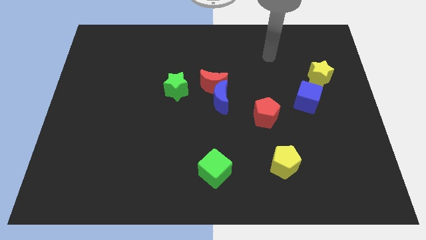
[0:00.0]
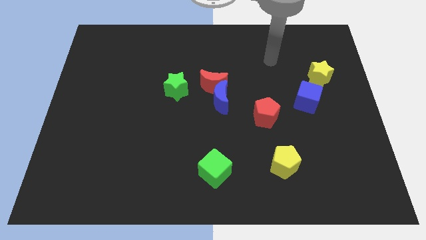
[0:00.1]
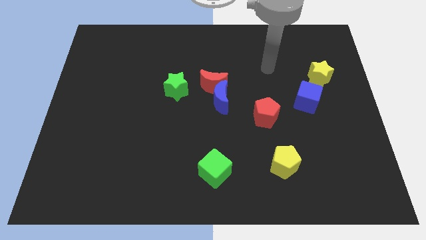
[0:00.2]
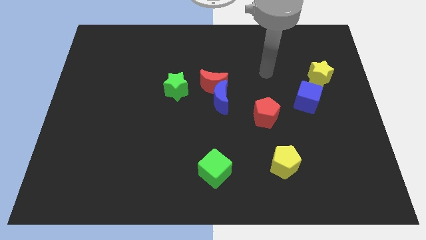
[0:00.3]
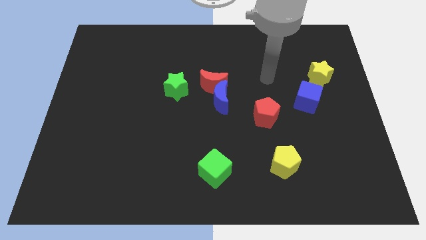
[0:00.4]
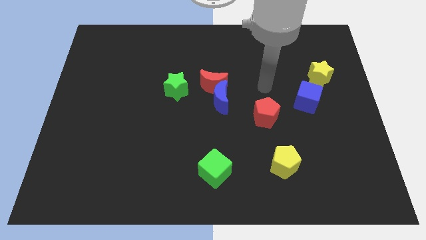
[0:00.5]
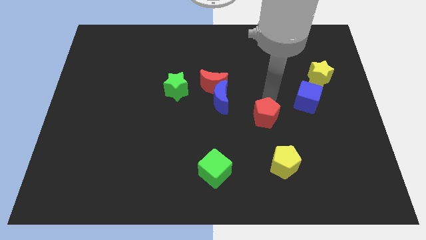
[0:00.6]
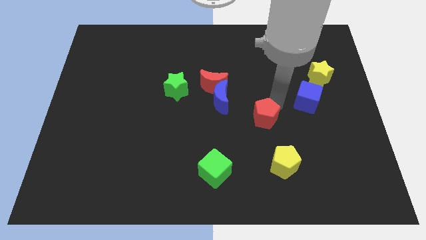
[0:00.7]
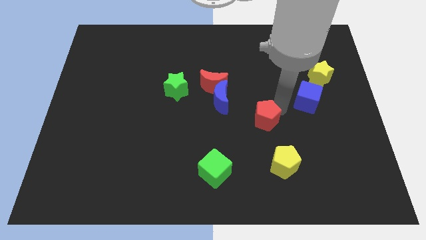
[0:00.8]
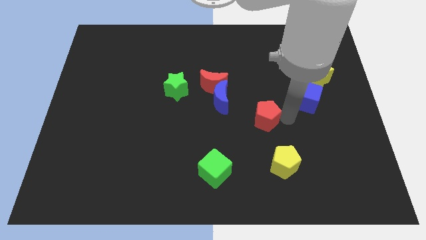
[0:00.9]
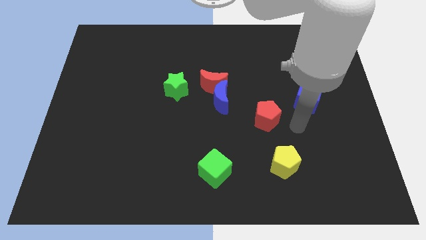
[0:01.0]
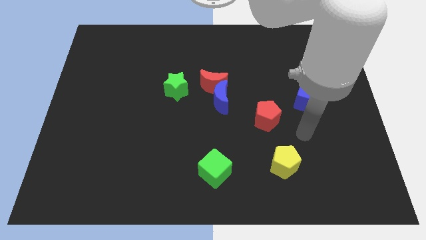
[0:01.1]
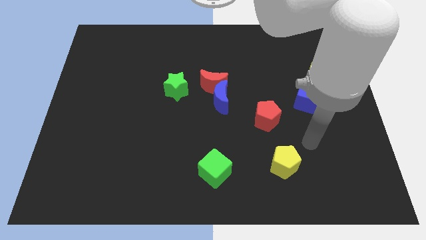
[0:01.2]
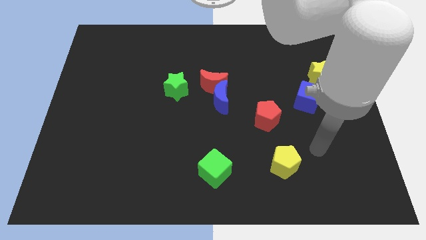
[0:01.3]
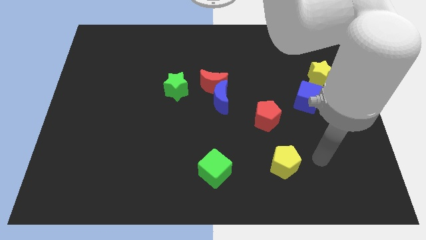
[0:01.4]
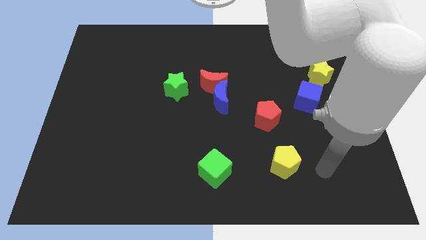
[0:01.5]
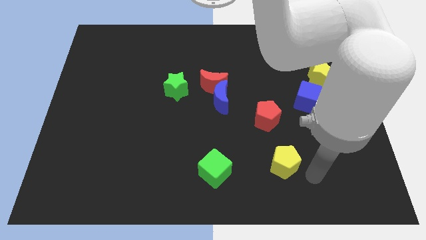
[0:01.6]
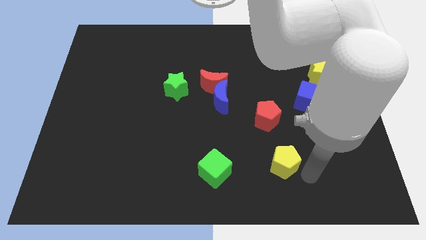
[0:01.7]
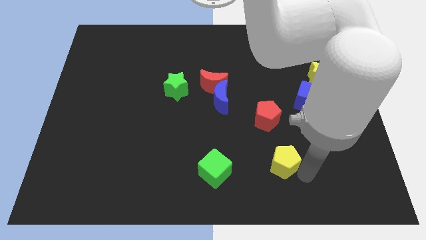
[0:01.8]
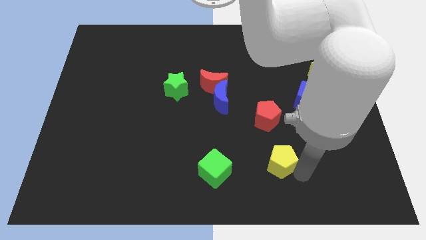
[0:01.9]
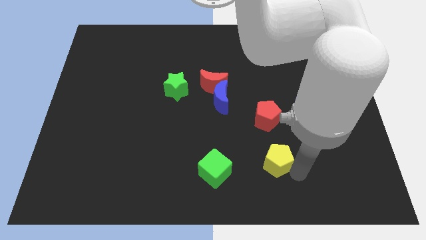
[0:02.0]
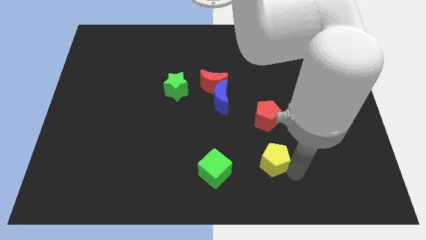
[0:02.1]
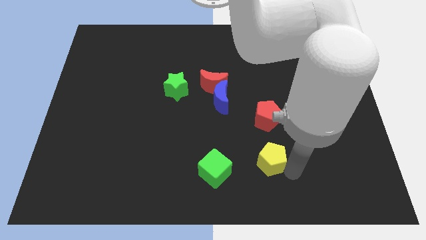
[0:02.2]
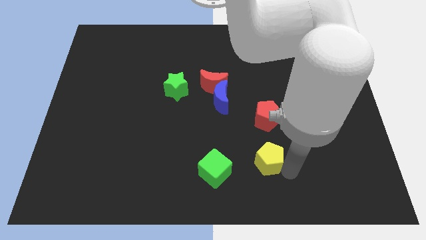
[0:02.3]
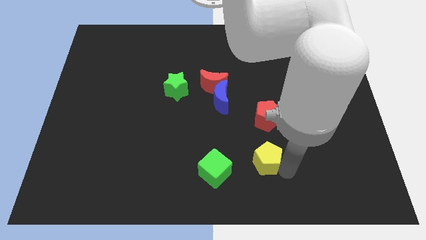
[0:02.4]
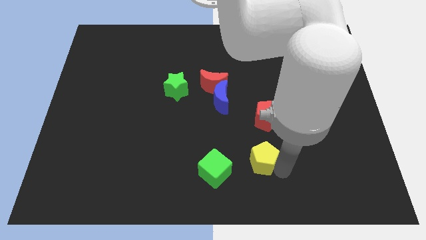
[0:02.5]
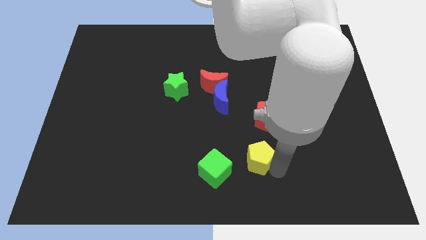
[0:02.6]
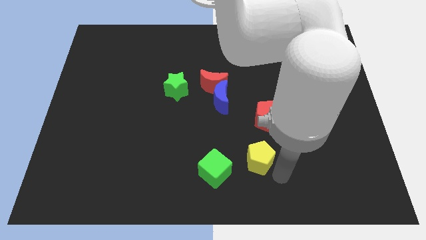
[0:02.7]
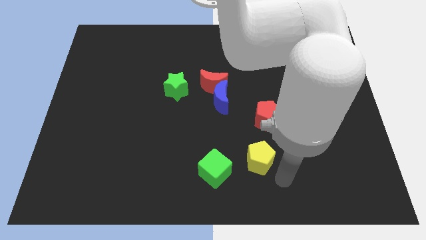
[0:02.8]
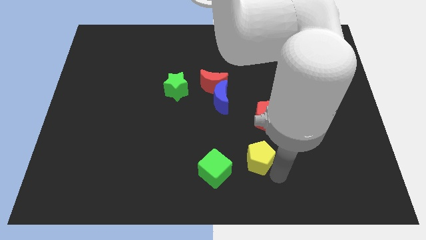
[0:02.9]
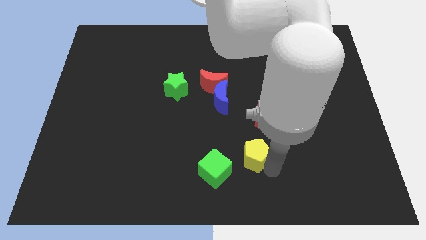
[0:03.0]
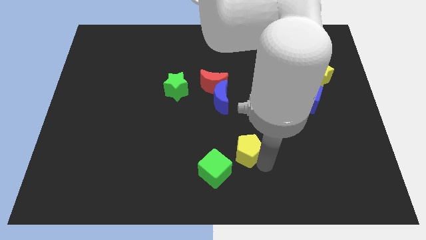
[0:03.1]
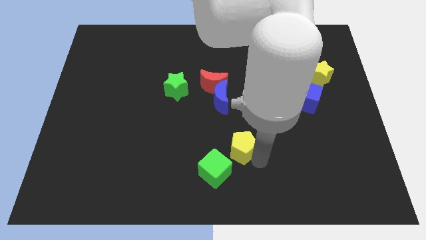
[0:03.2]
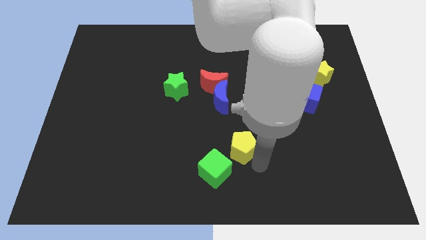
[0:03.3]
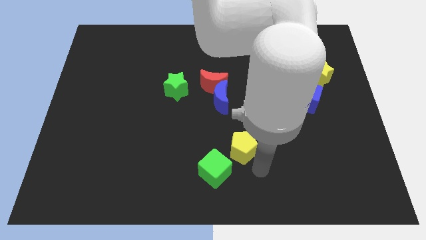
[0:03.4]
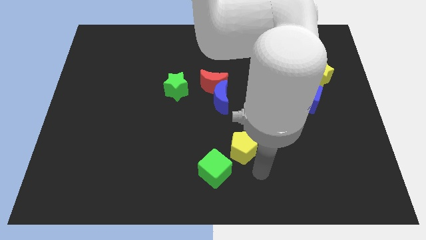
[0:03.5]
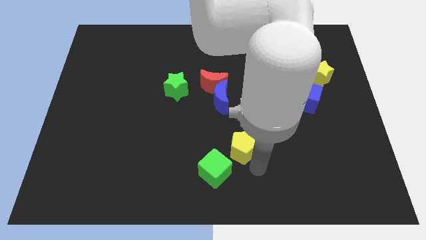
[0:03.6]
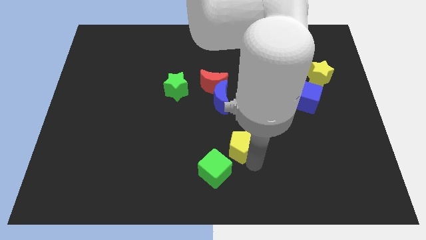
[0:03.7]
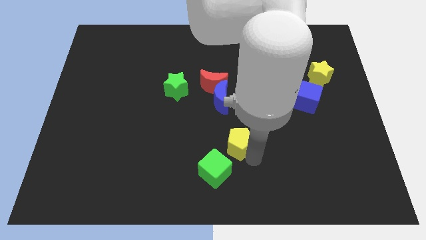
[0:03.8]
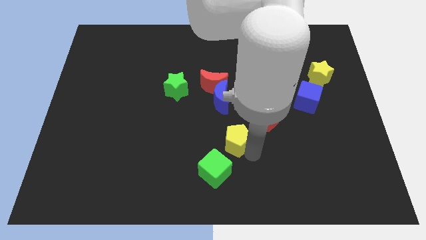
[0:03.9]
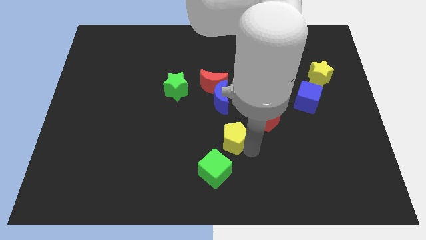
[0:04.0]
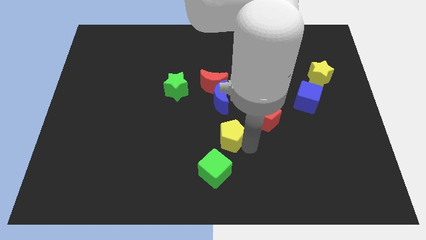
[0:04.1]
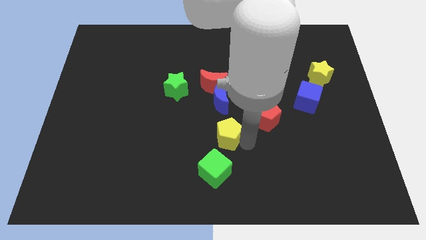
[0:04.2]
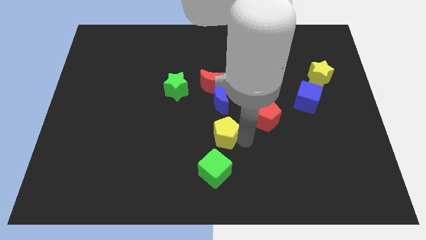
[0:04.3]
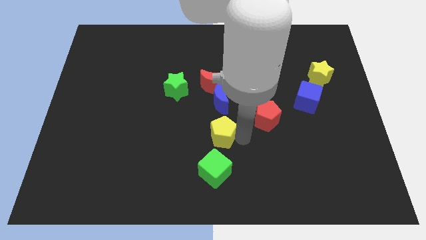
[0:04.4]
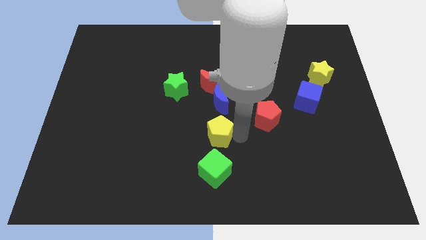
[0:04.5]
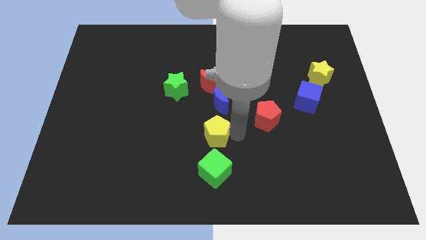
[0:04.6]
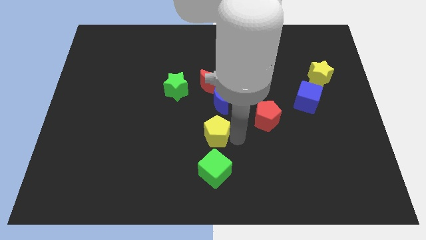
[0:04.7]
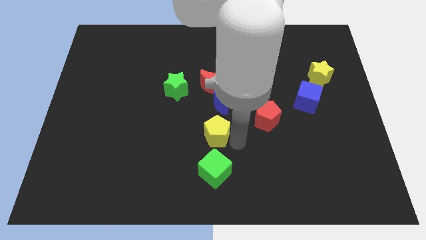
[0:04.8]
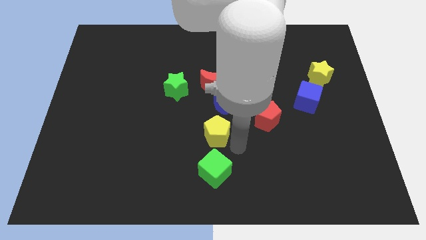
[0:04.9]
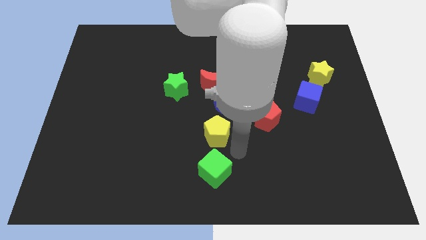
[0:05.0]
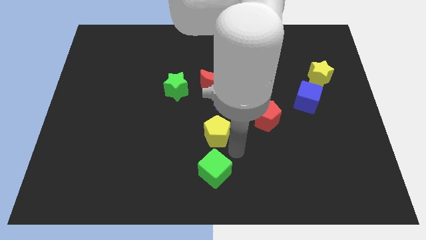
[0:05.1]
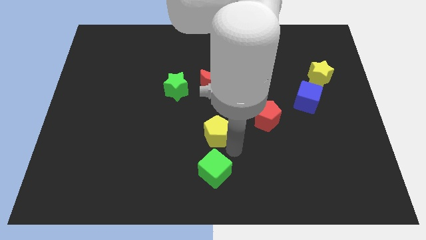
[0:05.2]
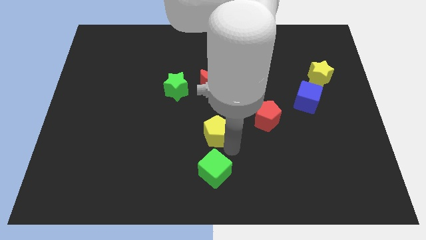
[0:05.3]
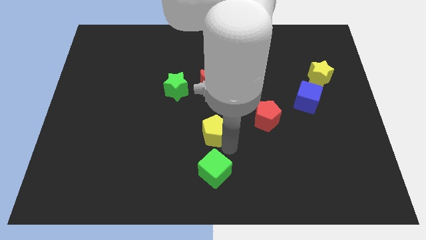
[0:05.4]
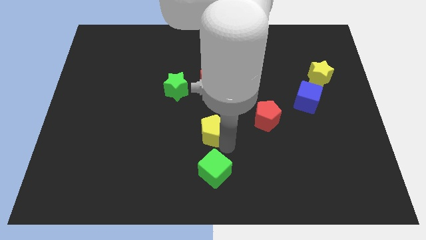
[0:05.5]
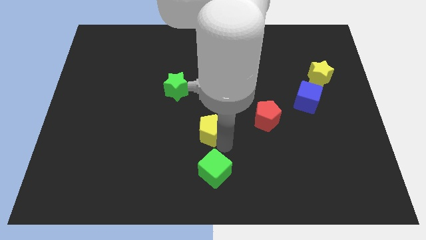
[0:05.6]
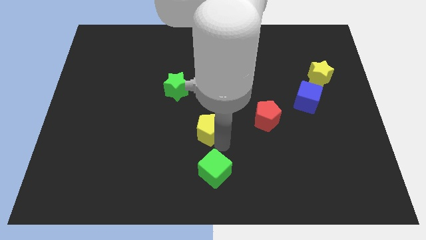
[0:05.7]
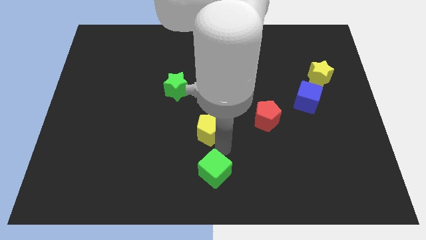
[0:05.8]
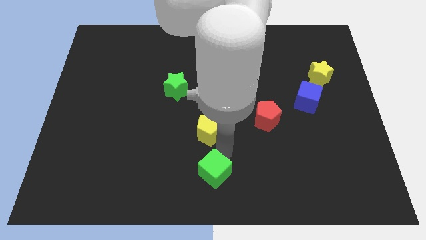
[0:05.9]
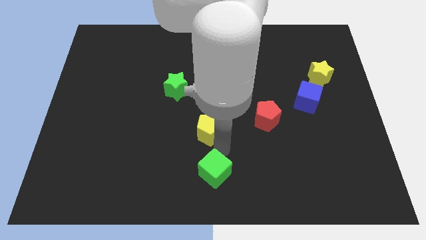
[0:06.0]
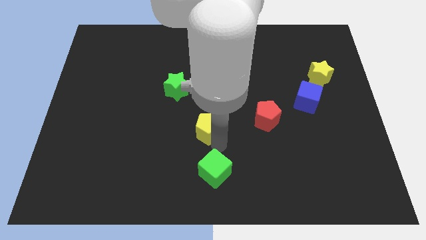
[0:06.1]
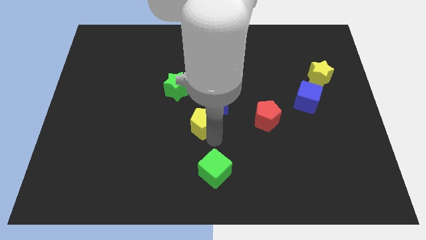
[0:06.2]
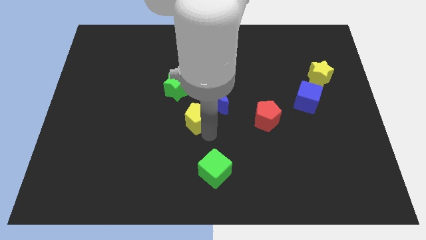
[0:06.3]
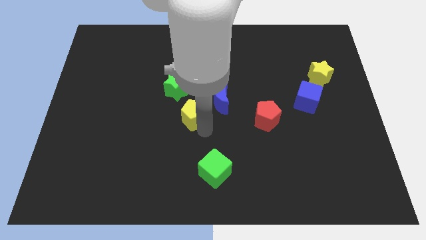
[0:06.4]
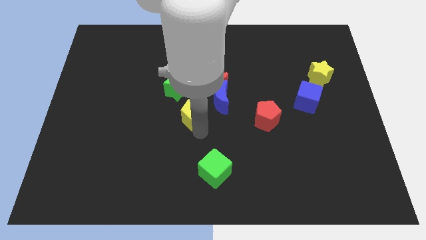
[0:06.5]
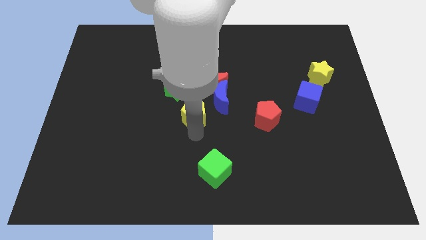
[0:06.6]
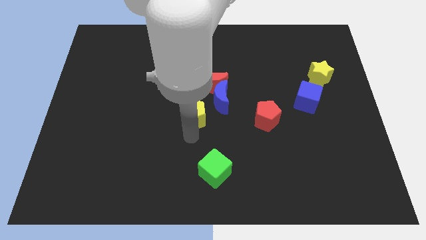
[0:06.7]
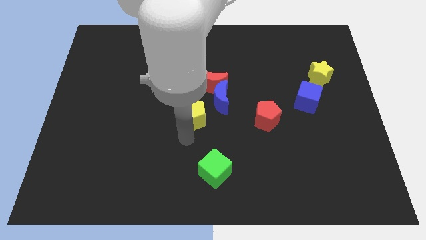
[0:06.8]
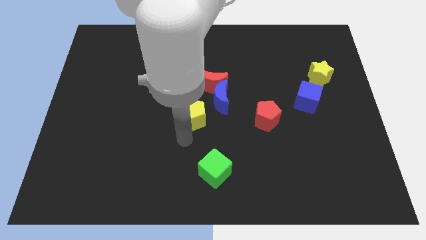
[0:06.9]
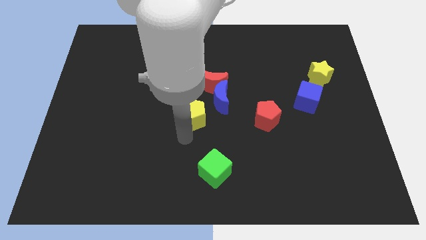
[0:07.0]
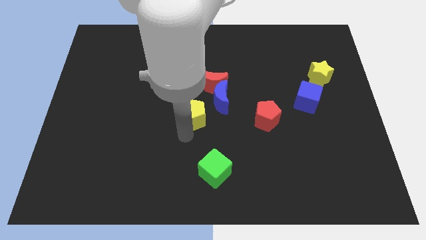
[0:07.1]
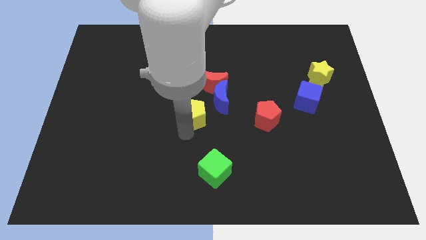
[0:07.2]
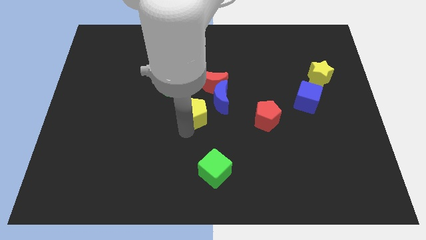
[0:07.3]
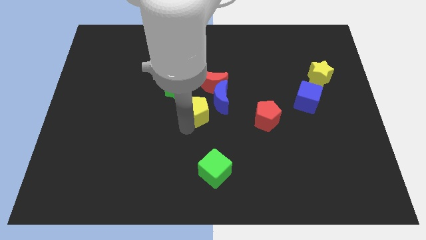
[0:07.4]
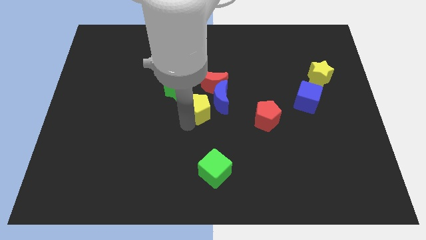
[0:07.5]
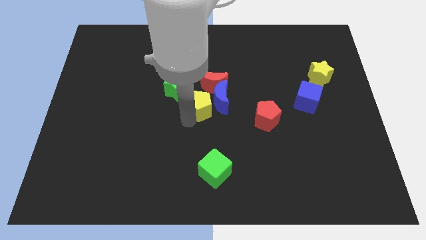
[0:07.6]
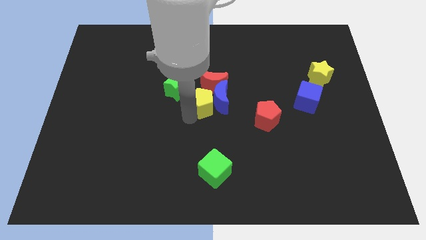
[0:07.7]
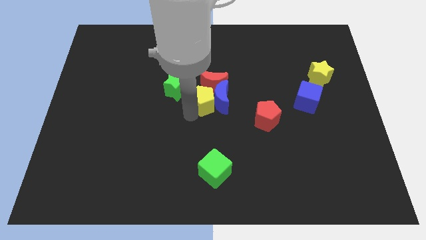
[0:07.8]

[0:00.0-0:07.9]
move the yellow pentagon next to the red moon

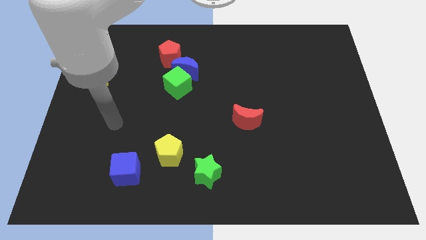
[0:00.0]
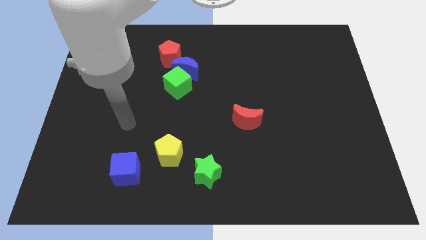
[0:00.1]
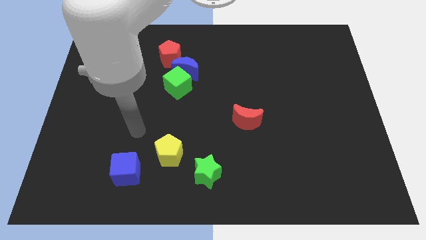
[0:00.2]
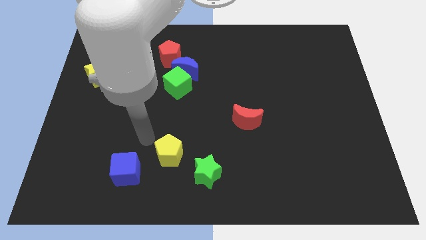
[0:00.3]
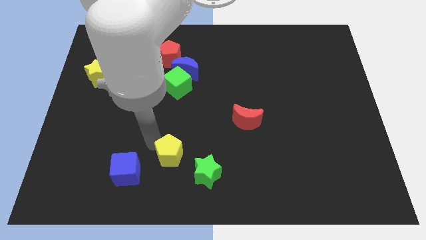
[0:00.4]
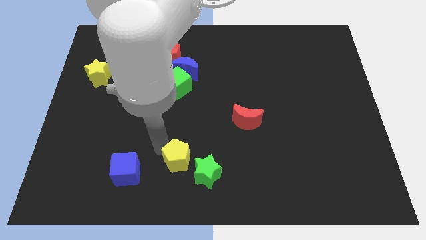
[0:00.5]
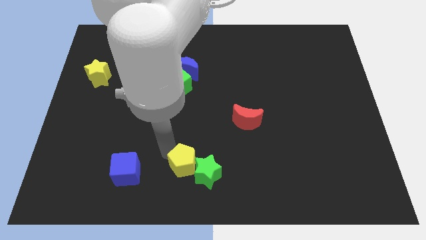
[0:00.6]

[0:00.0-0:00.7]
push the yellow pentagon to the green star
